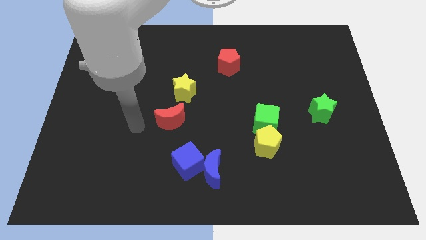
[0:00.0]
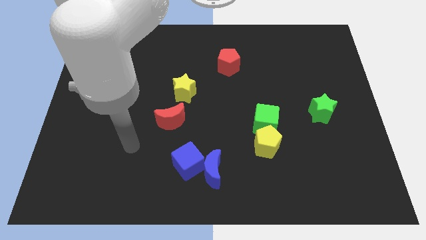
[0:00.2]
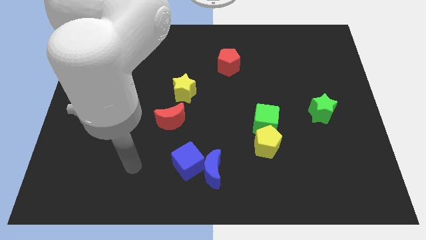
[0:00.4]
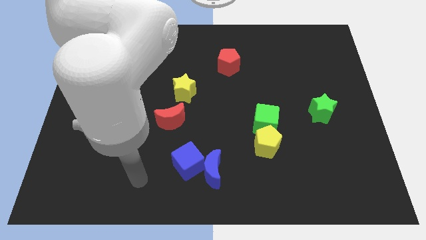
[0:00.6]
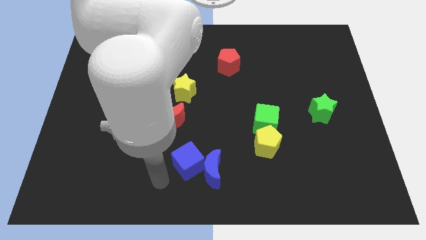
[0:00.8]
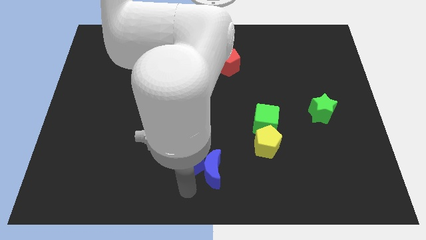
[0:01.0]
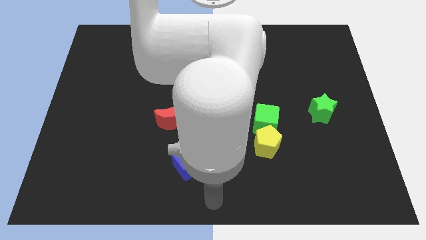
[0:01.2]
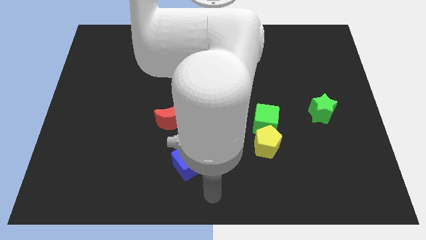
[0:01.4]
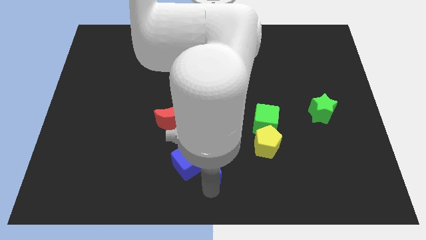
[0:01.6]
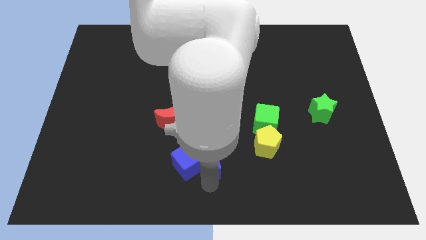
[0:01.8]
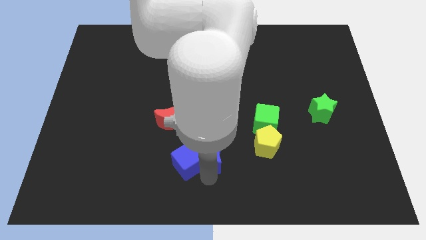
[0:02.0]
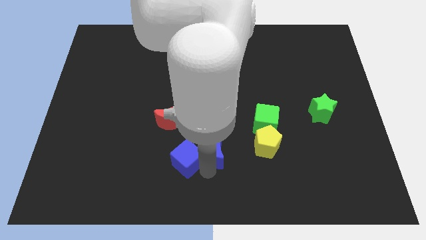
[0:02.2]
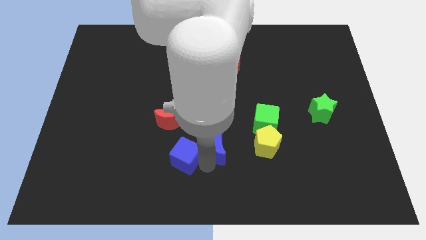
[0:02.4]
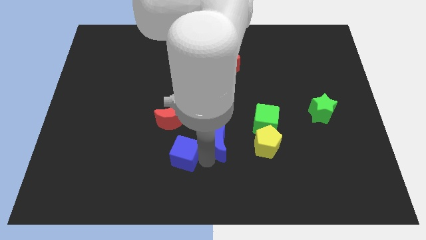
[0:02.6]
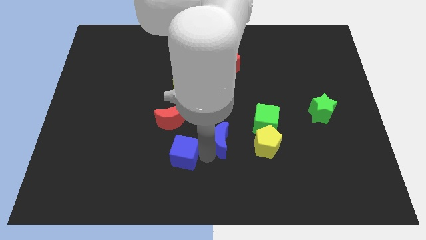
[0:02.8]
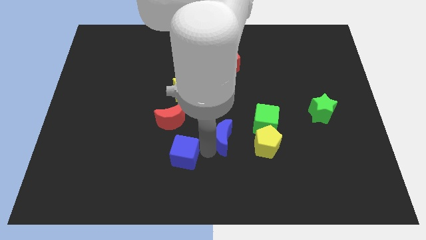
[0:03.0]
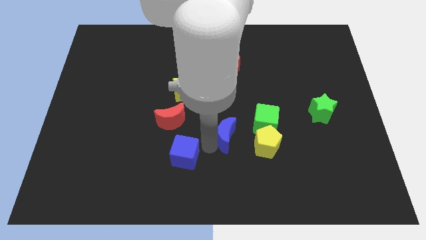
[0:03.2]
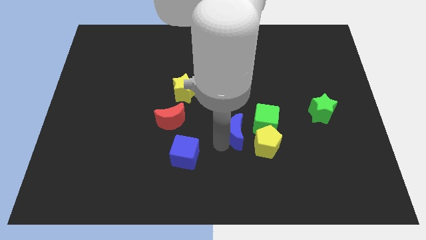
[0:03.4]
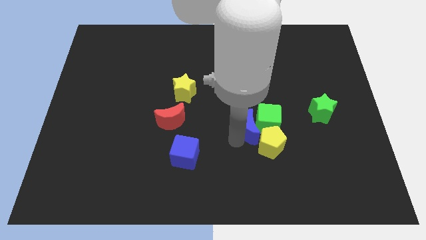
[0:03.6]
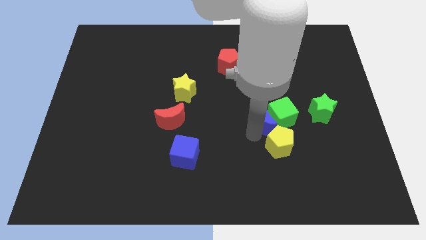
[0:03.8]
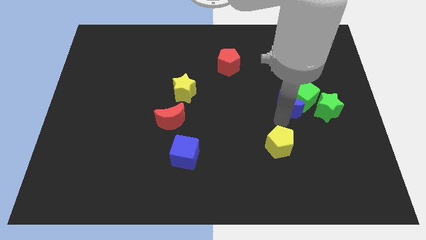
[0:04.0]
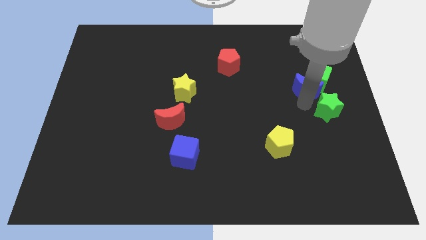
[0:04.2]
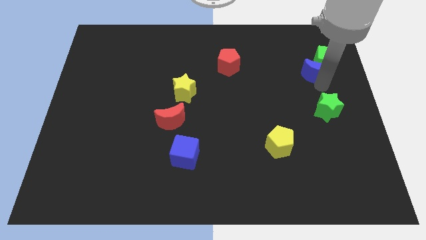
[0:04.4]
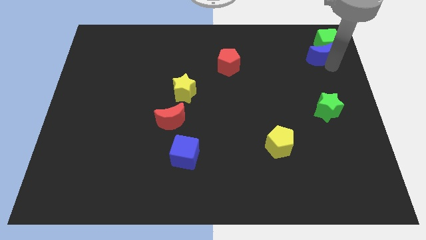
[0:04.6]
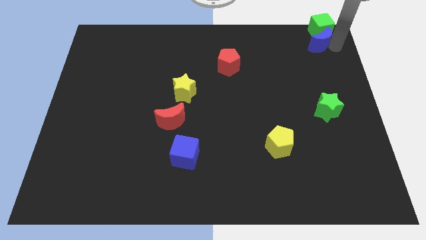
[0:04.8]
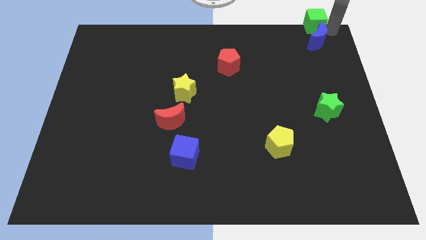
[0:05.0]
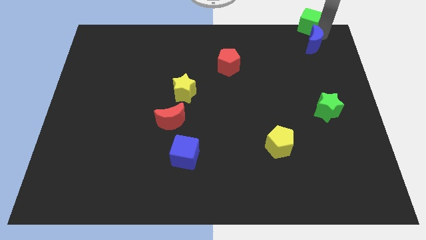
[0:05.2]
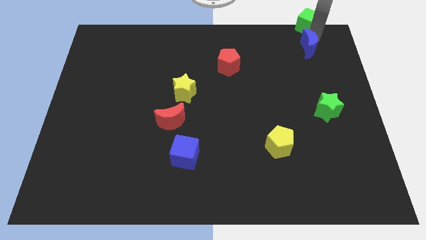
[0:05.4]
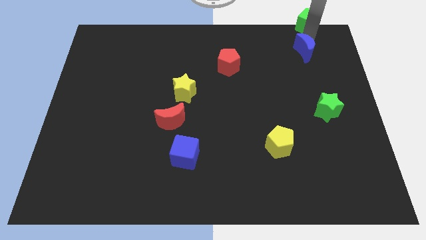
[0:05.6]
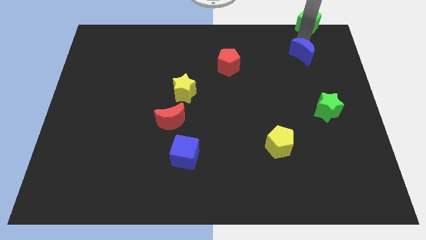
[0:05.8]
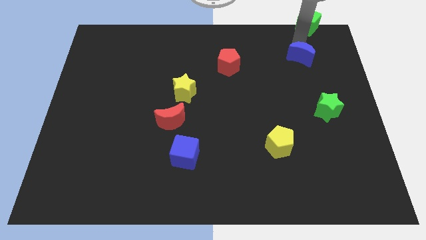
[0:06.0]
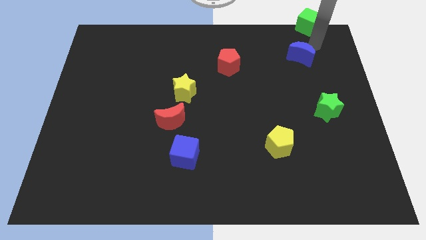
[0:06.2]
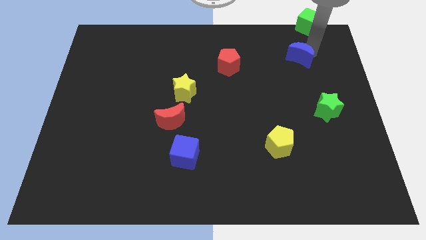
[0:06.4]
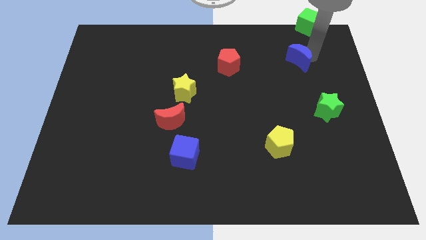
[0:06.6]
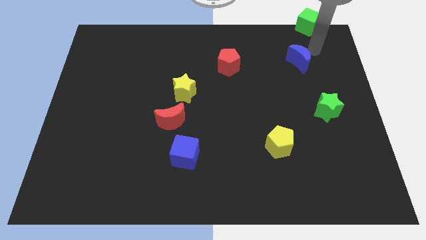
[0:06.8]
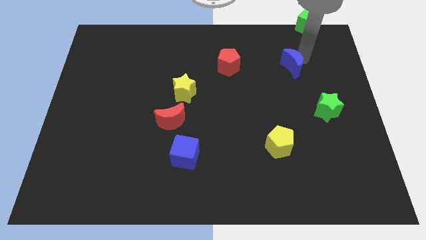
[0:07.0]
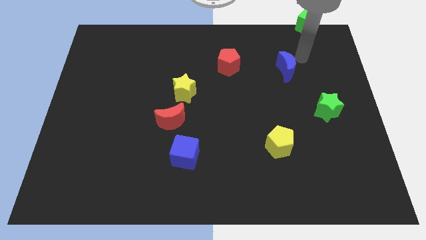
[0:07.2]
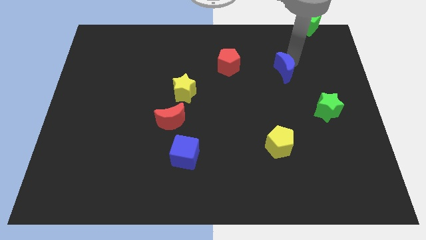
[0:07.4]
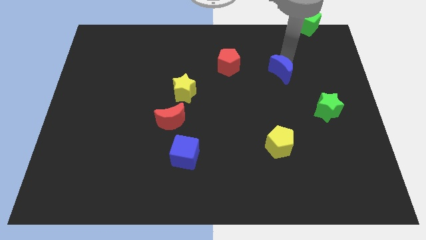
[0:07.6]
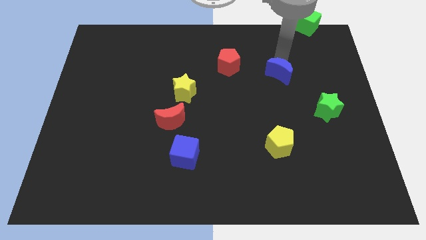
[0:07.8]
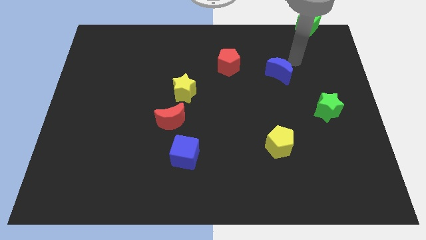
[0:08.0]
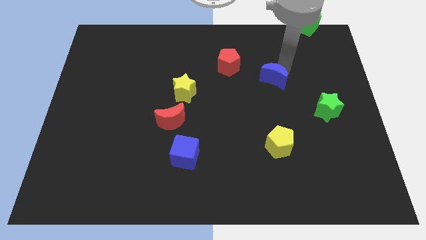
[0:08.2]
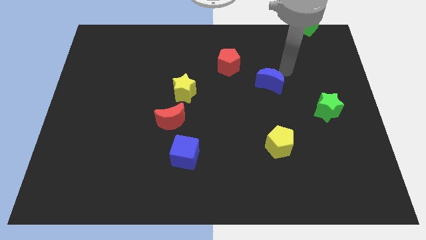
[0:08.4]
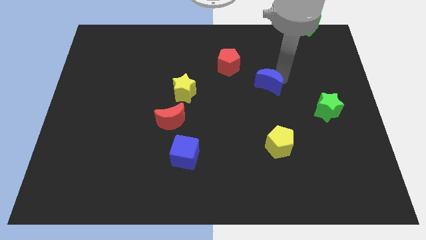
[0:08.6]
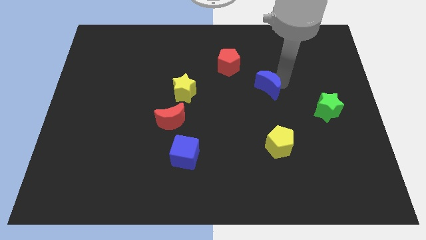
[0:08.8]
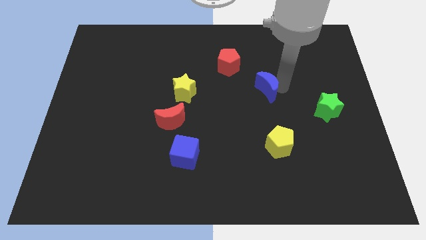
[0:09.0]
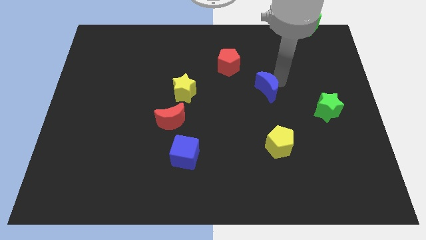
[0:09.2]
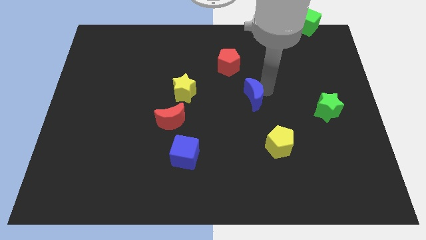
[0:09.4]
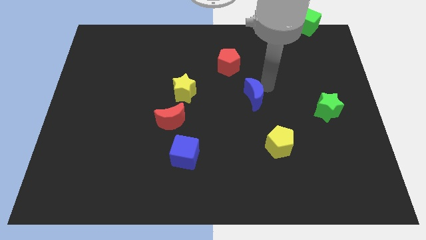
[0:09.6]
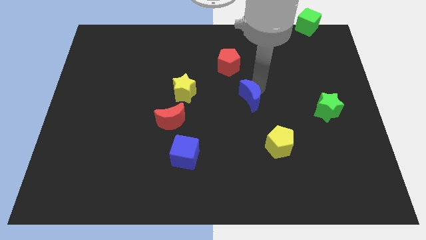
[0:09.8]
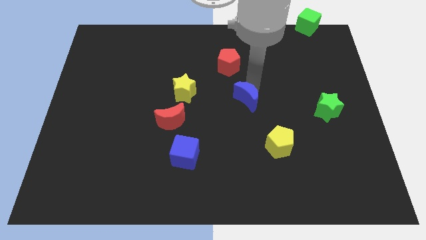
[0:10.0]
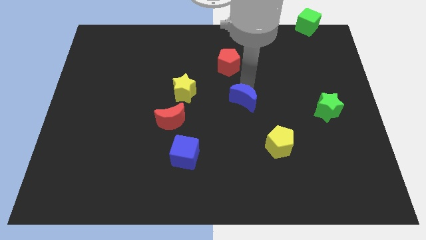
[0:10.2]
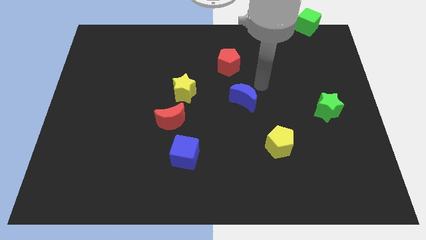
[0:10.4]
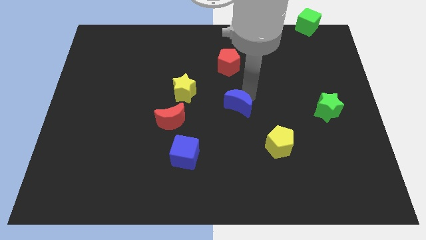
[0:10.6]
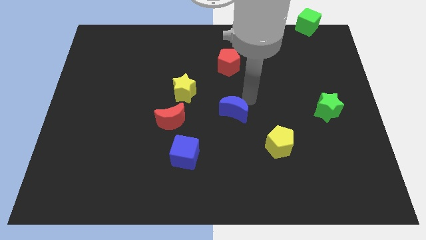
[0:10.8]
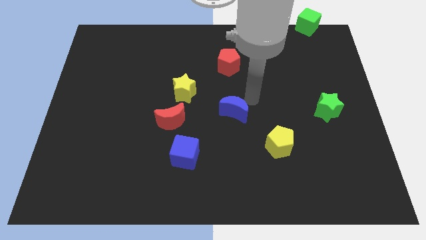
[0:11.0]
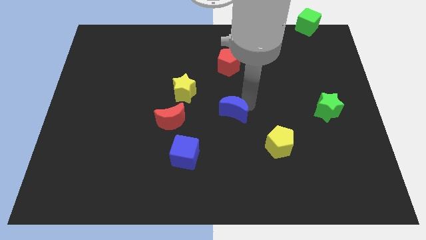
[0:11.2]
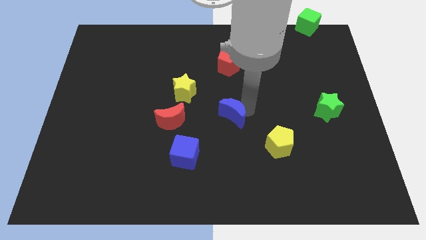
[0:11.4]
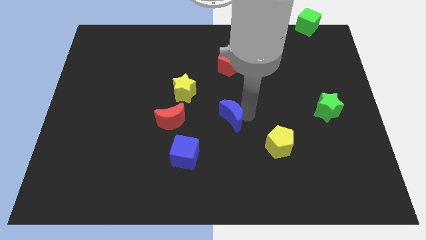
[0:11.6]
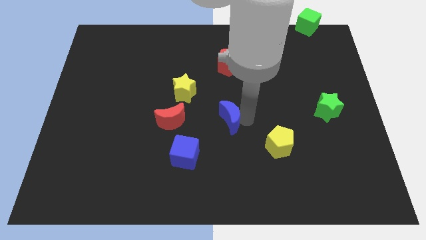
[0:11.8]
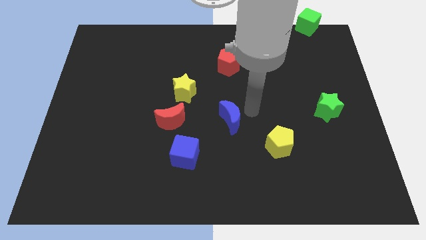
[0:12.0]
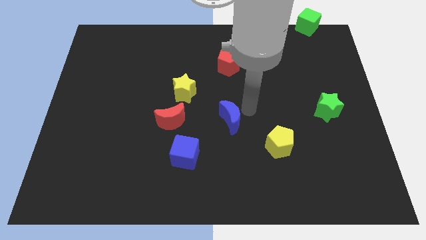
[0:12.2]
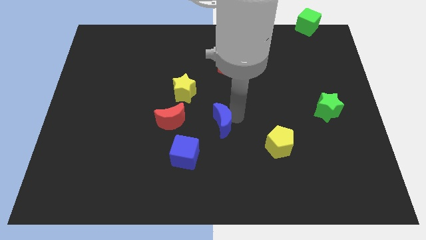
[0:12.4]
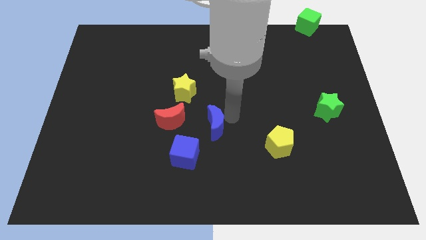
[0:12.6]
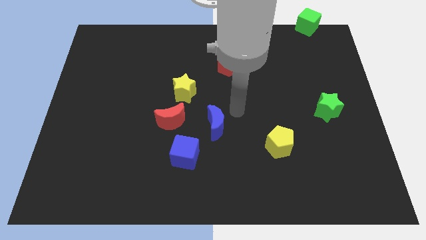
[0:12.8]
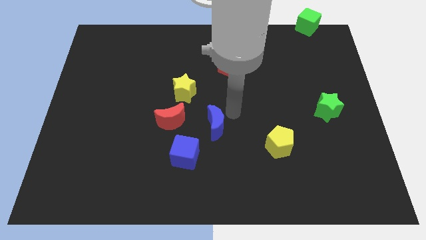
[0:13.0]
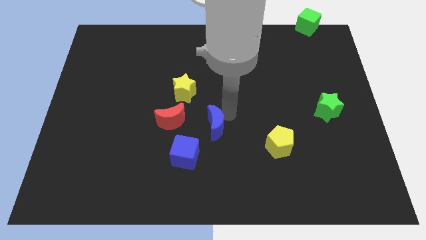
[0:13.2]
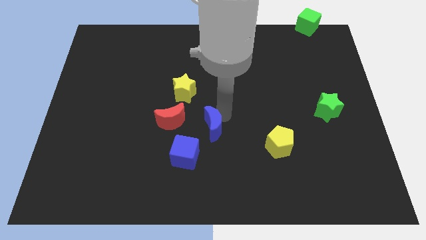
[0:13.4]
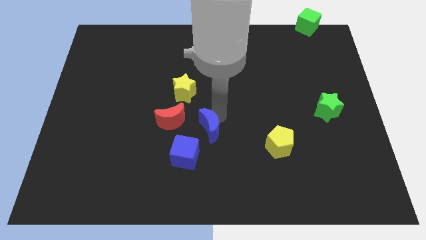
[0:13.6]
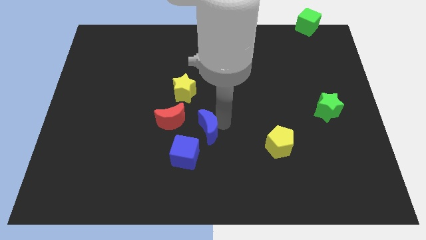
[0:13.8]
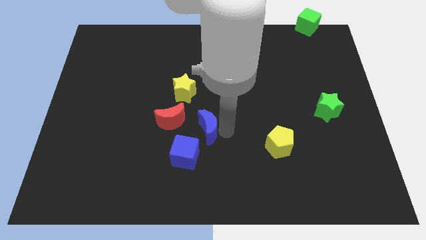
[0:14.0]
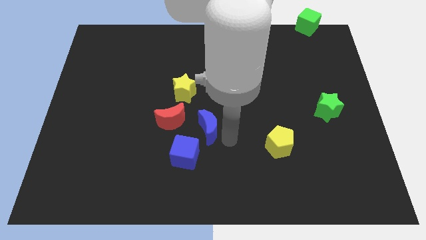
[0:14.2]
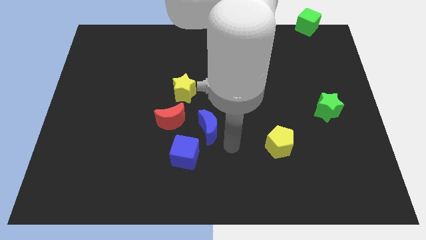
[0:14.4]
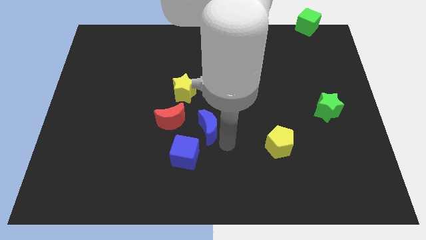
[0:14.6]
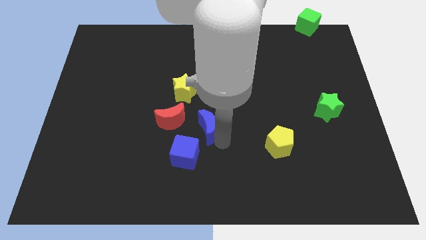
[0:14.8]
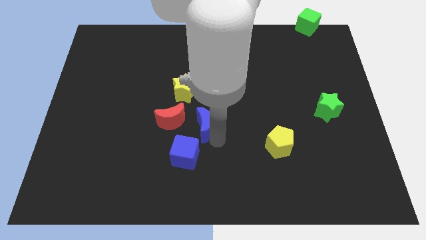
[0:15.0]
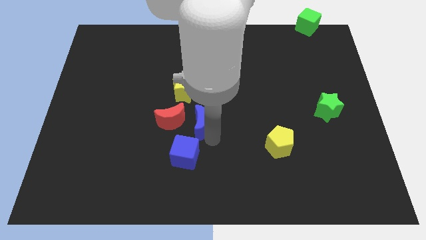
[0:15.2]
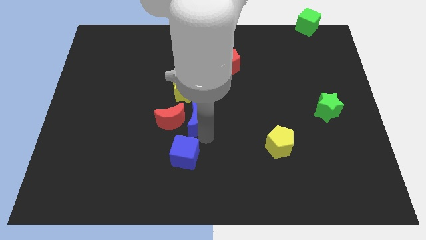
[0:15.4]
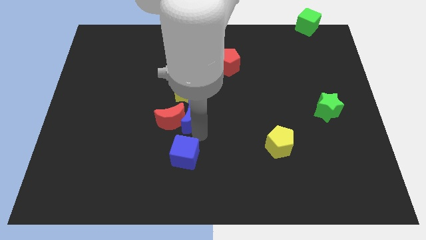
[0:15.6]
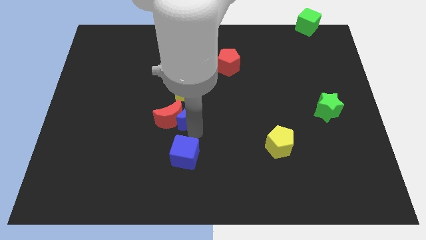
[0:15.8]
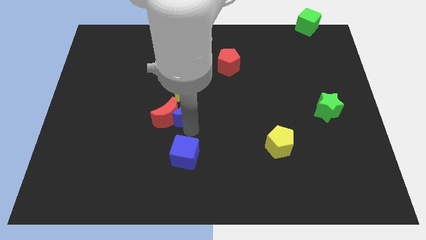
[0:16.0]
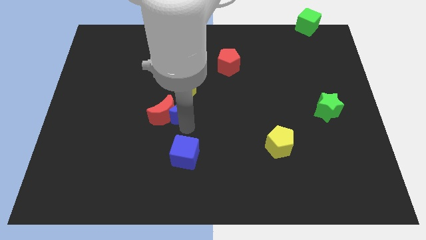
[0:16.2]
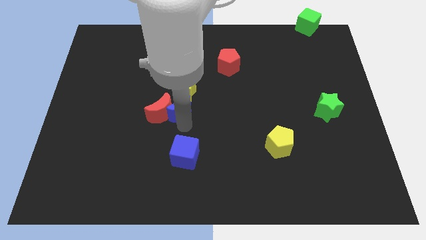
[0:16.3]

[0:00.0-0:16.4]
push the blue moon towards the yellow star
